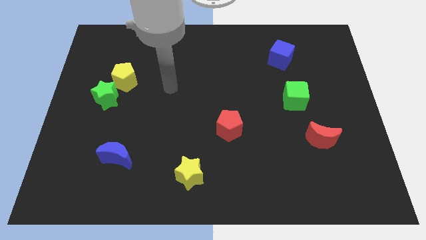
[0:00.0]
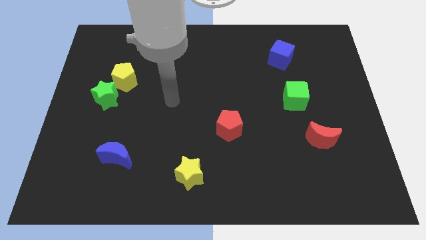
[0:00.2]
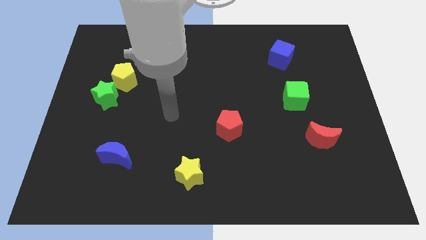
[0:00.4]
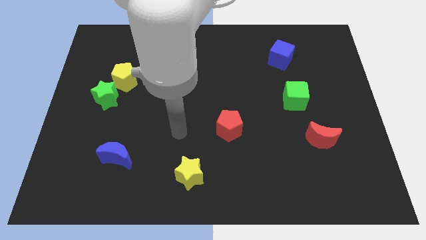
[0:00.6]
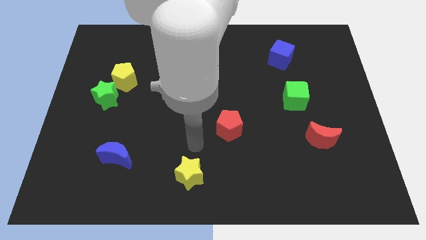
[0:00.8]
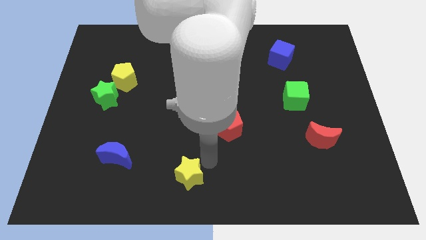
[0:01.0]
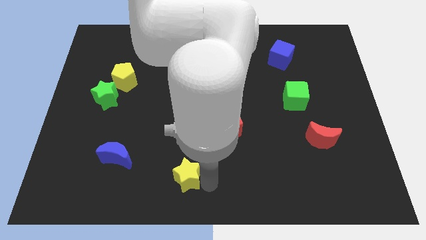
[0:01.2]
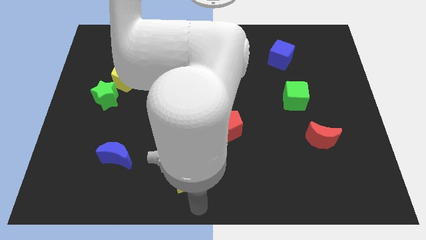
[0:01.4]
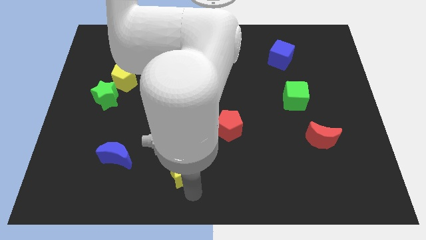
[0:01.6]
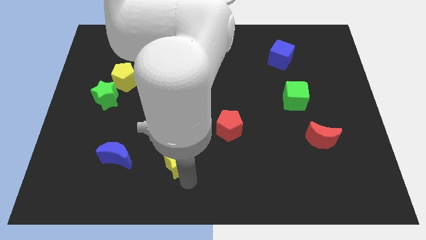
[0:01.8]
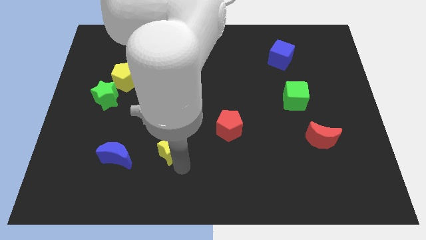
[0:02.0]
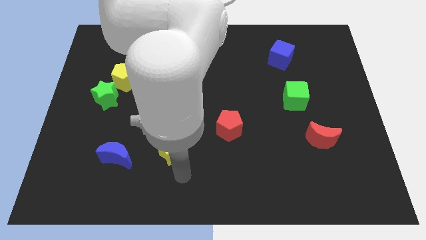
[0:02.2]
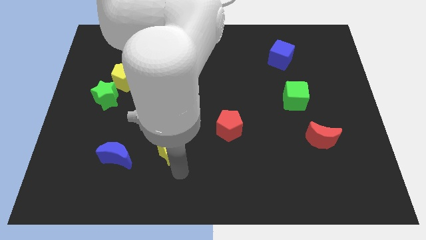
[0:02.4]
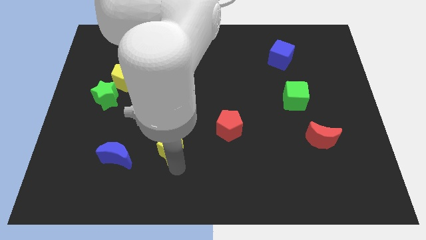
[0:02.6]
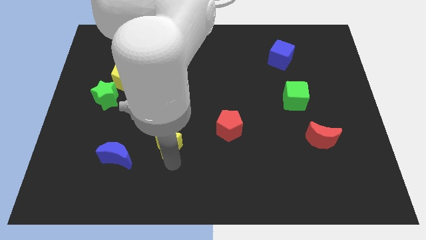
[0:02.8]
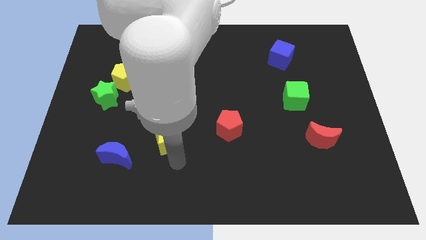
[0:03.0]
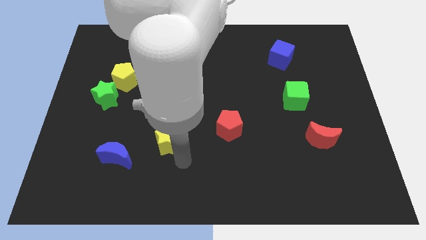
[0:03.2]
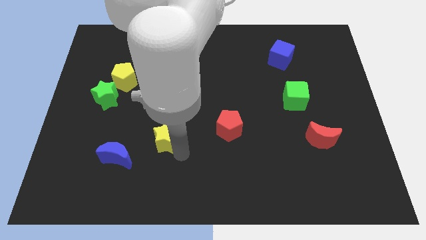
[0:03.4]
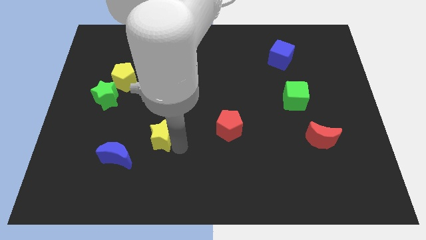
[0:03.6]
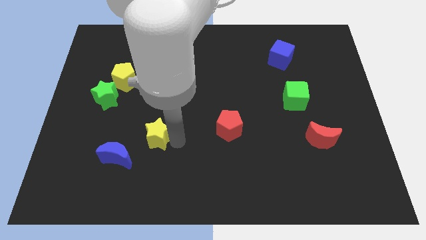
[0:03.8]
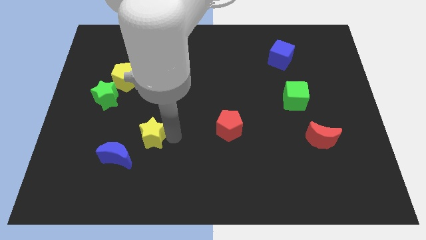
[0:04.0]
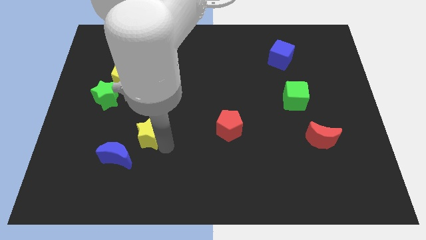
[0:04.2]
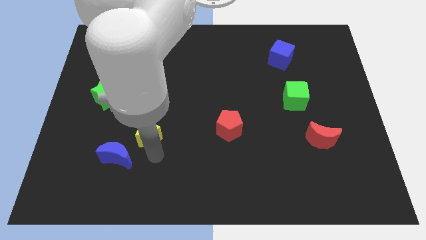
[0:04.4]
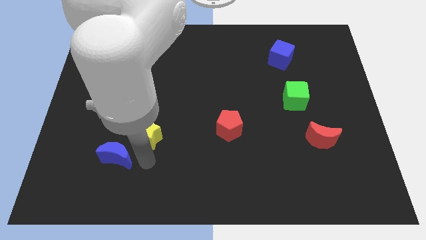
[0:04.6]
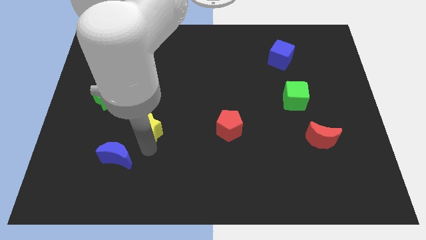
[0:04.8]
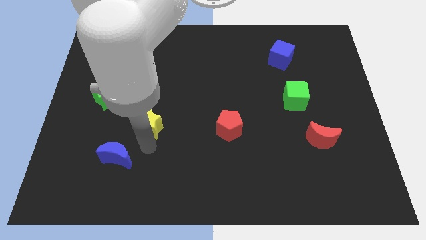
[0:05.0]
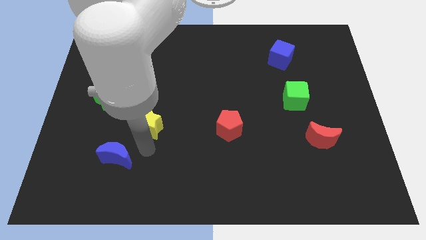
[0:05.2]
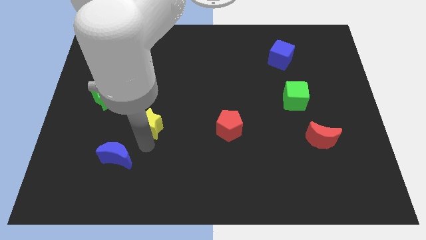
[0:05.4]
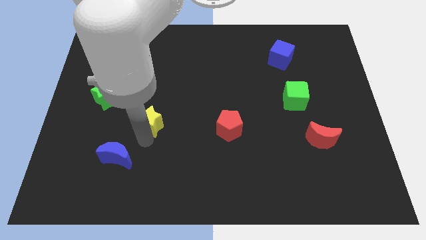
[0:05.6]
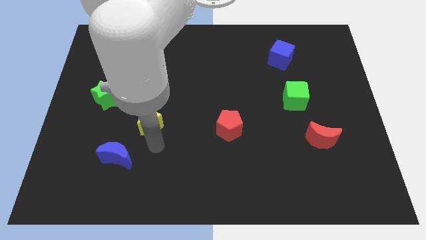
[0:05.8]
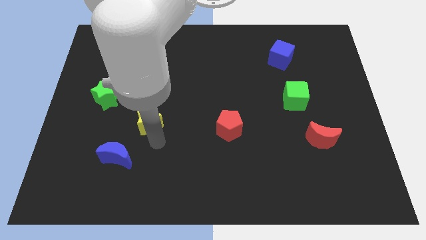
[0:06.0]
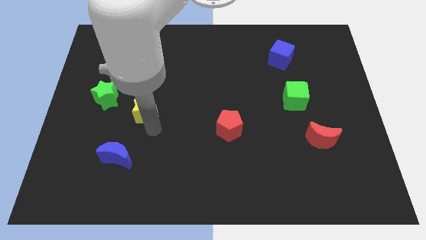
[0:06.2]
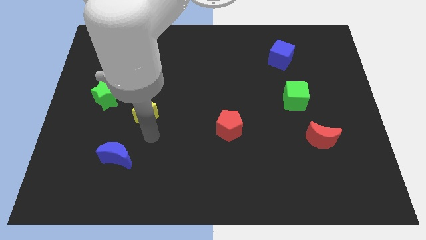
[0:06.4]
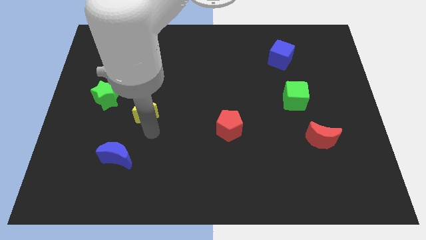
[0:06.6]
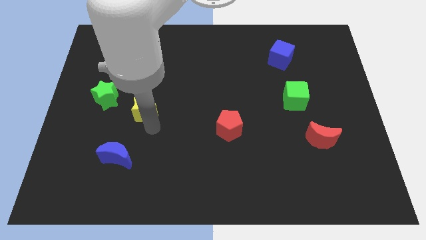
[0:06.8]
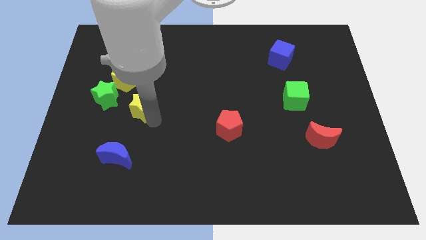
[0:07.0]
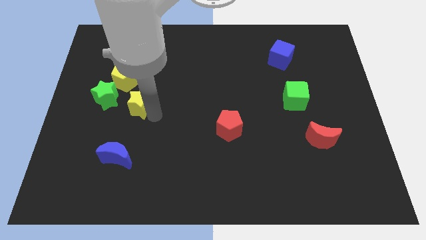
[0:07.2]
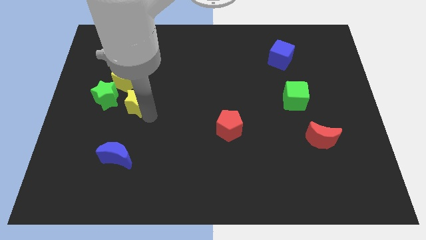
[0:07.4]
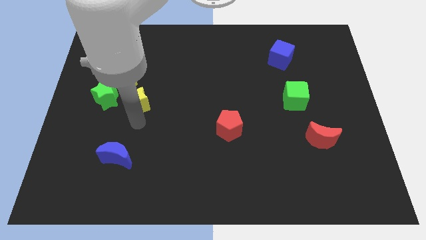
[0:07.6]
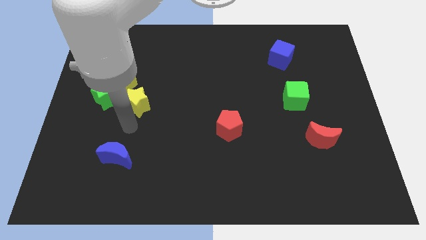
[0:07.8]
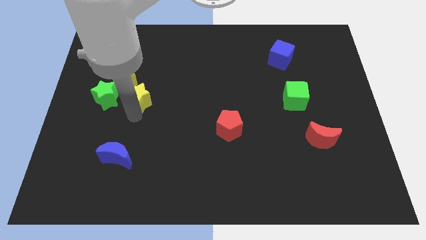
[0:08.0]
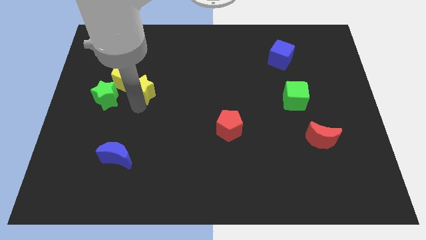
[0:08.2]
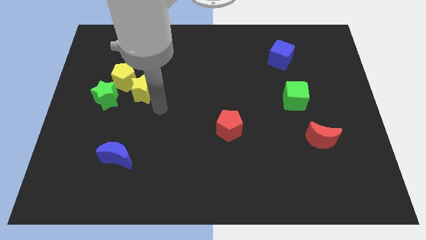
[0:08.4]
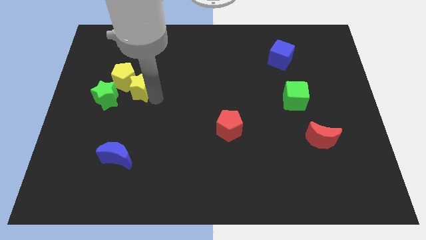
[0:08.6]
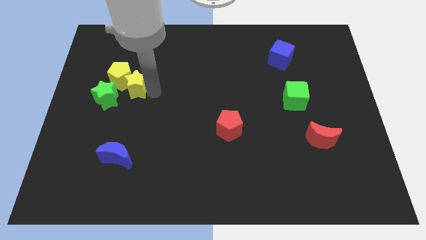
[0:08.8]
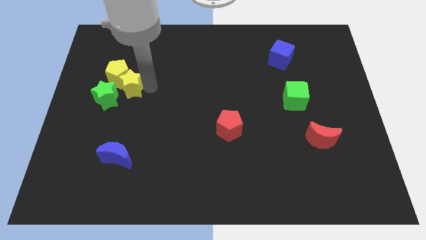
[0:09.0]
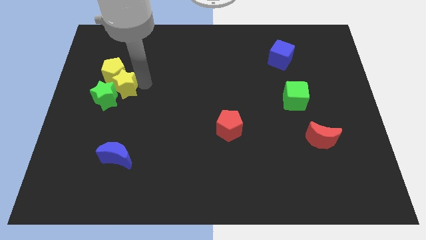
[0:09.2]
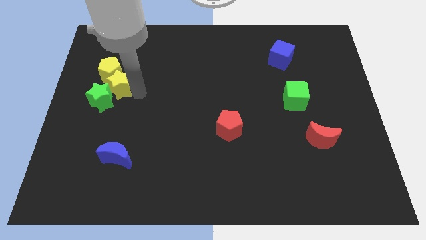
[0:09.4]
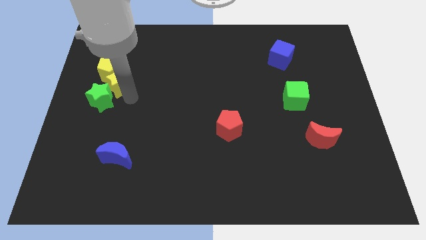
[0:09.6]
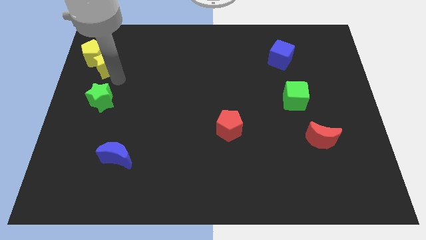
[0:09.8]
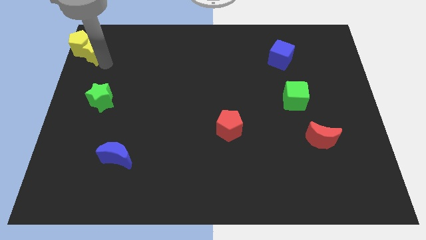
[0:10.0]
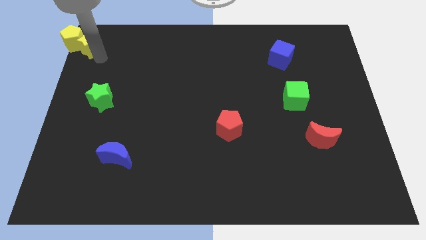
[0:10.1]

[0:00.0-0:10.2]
push the yellow star to the top left of the board

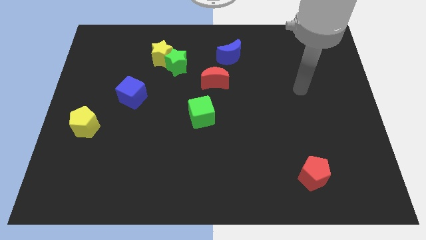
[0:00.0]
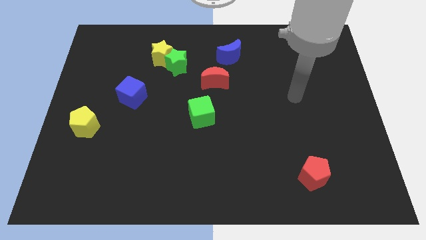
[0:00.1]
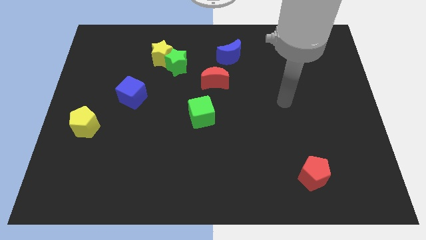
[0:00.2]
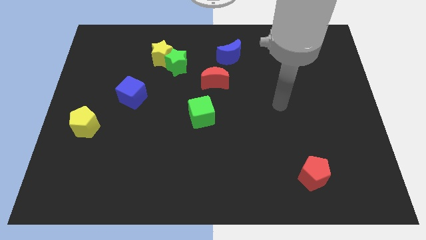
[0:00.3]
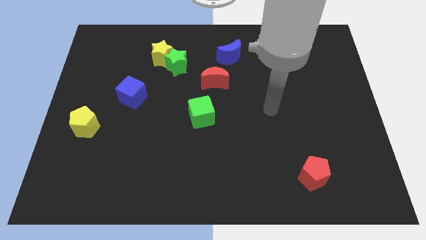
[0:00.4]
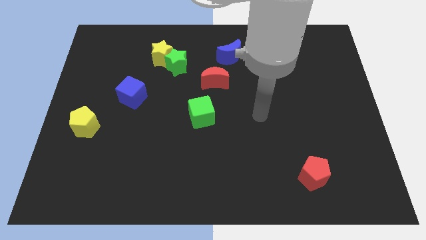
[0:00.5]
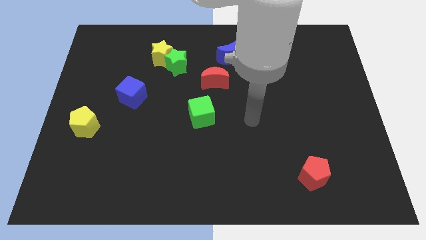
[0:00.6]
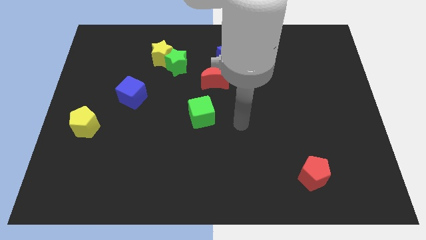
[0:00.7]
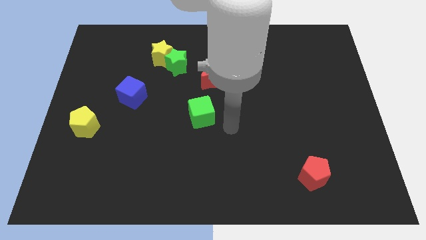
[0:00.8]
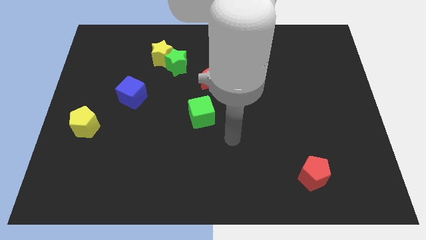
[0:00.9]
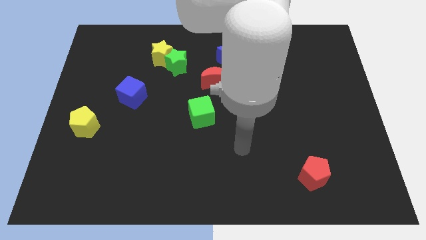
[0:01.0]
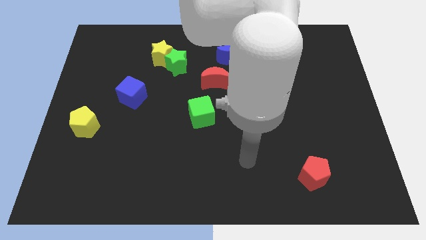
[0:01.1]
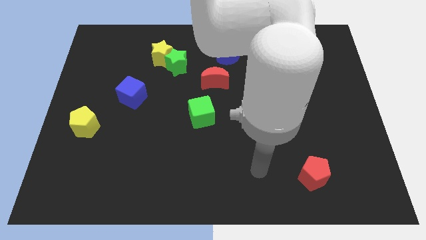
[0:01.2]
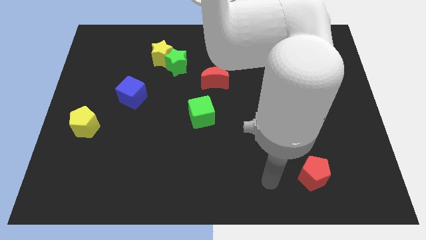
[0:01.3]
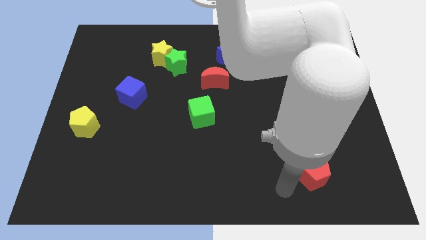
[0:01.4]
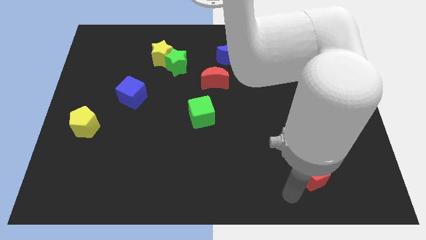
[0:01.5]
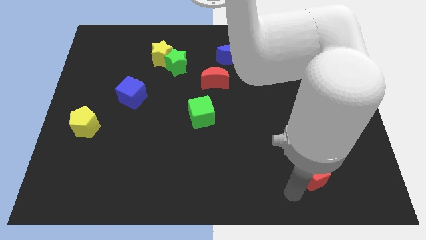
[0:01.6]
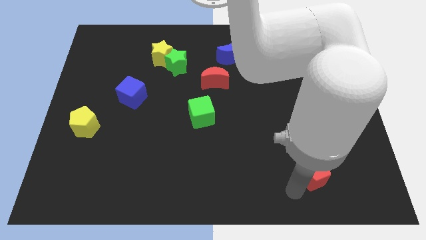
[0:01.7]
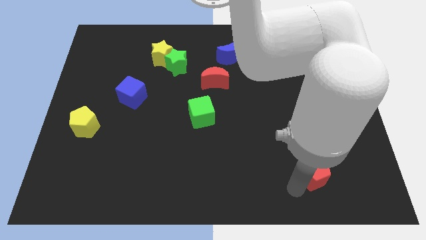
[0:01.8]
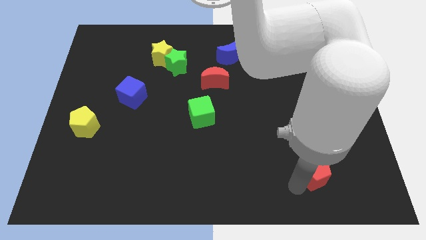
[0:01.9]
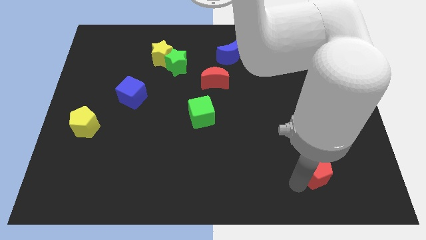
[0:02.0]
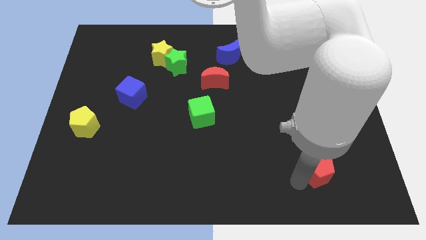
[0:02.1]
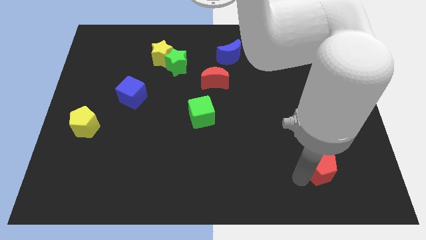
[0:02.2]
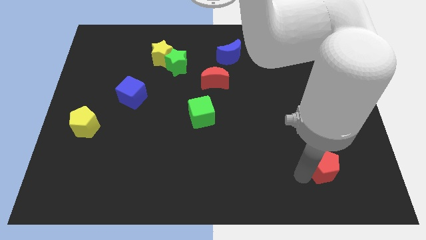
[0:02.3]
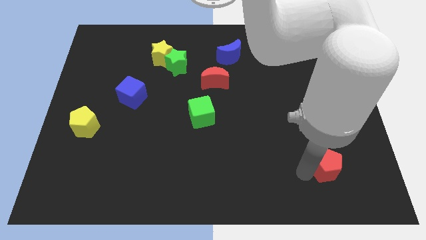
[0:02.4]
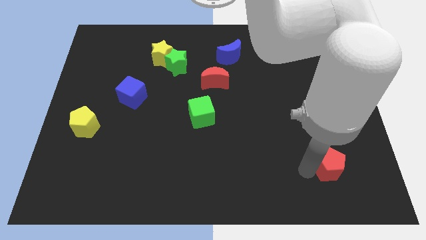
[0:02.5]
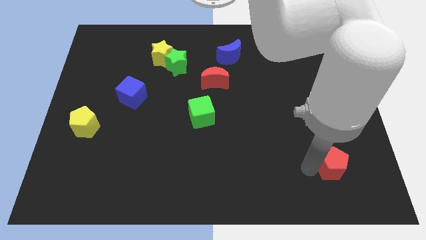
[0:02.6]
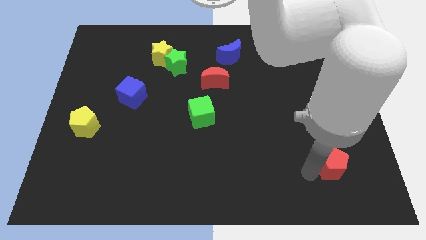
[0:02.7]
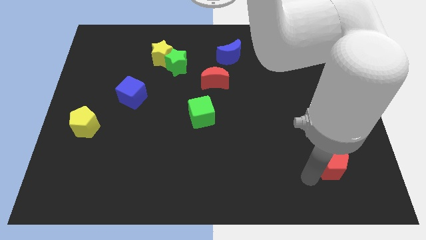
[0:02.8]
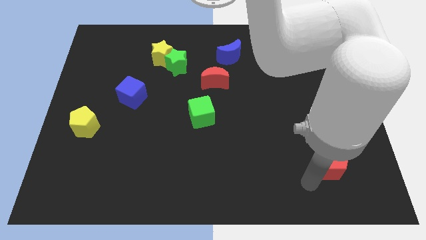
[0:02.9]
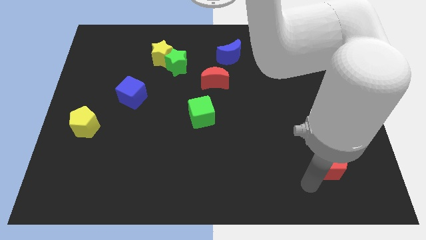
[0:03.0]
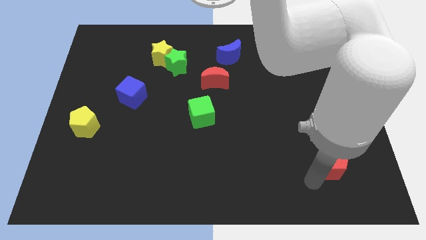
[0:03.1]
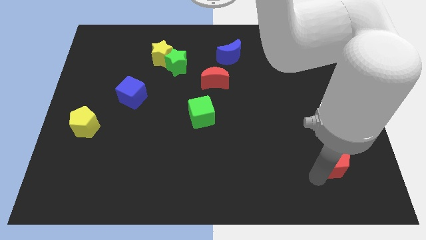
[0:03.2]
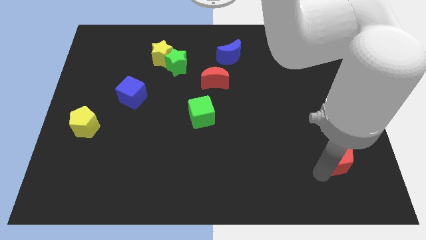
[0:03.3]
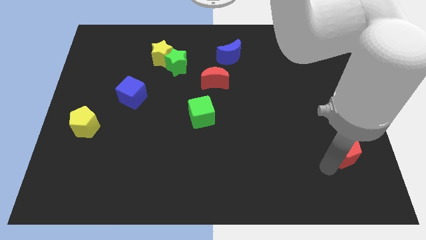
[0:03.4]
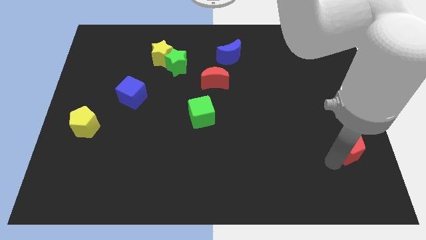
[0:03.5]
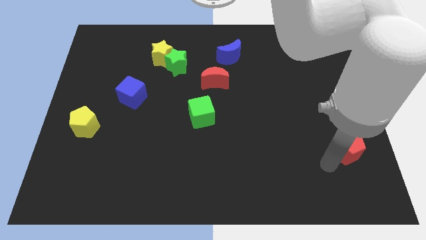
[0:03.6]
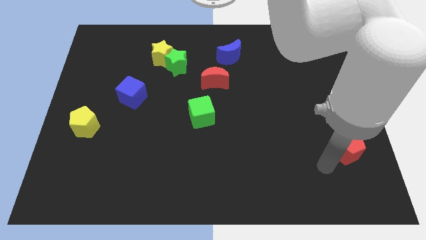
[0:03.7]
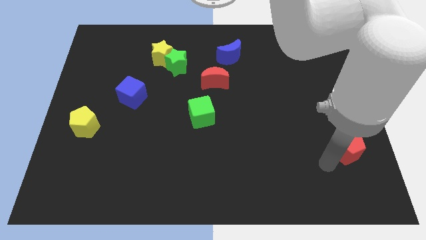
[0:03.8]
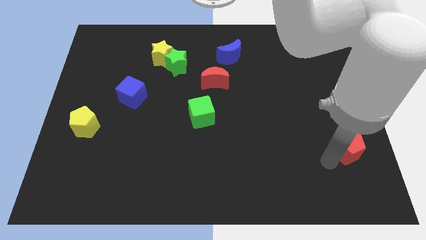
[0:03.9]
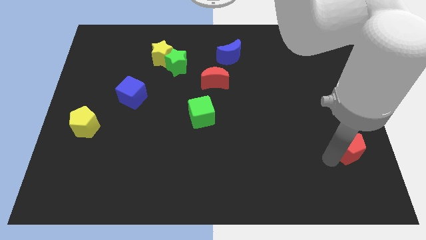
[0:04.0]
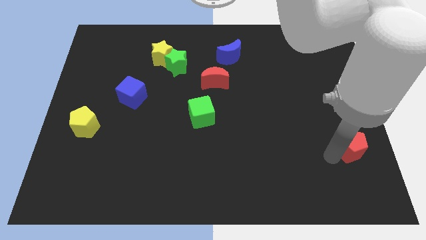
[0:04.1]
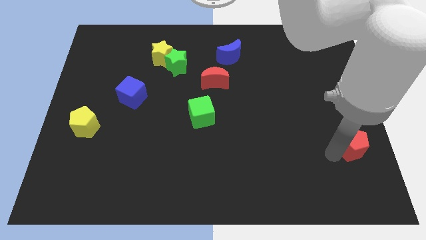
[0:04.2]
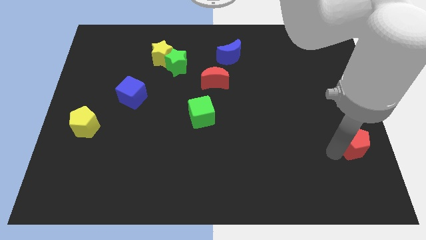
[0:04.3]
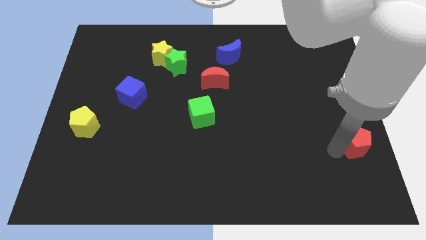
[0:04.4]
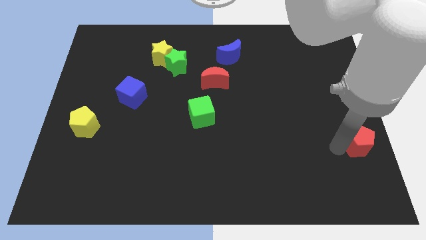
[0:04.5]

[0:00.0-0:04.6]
put the red pentagon to the center right
